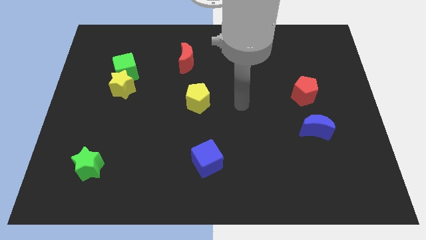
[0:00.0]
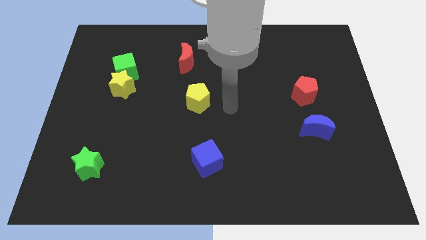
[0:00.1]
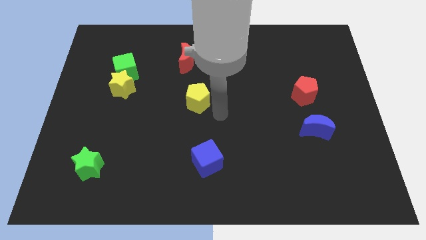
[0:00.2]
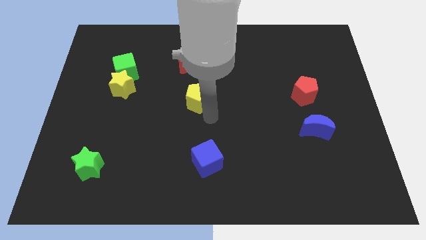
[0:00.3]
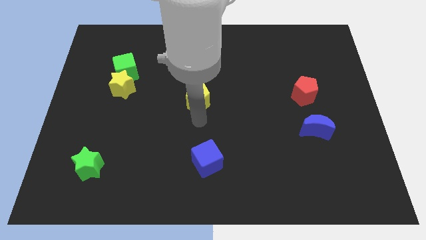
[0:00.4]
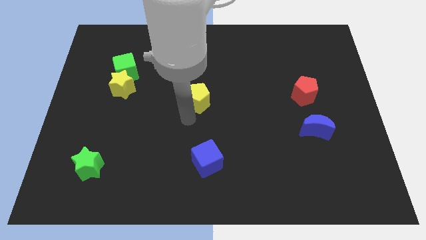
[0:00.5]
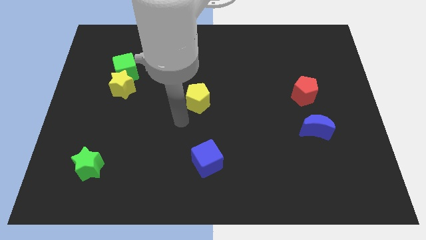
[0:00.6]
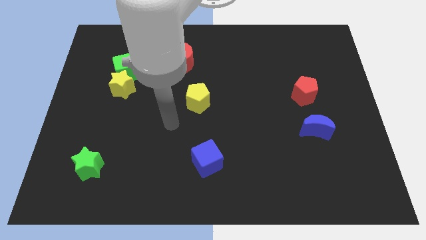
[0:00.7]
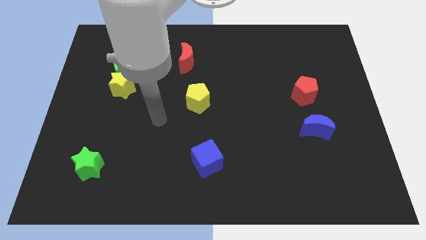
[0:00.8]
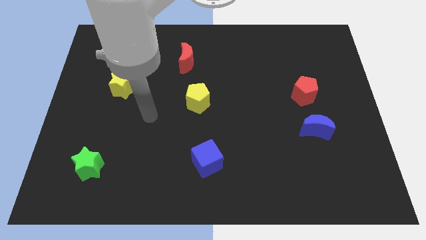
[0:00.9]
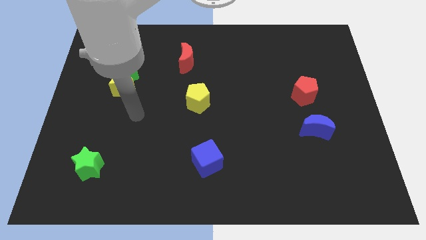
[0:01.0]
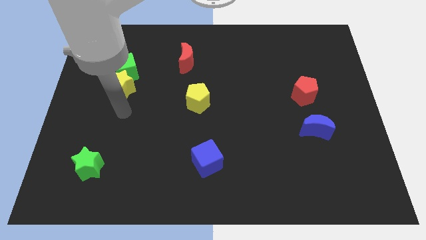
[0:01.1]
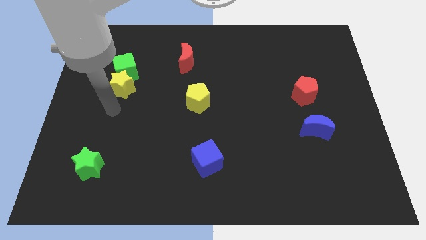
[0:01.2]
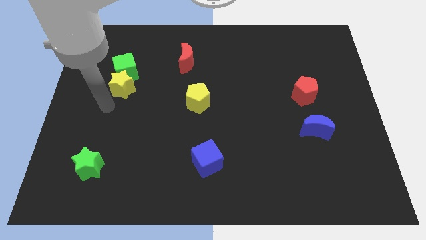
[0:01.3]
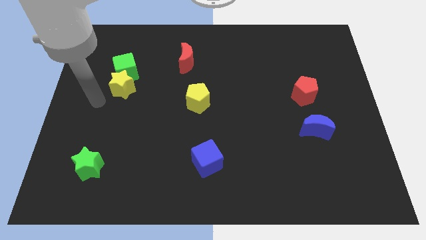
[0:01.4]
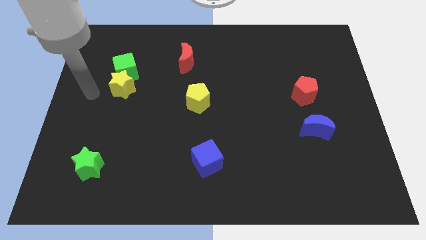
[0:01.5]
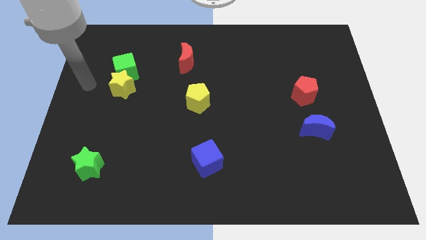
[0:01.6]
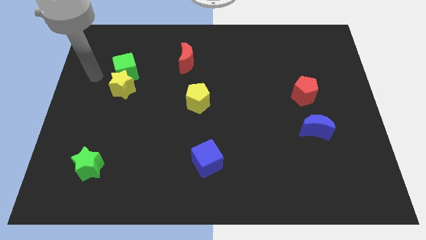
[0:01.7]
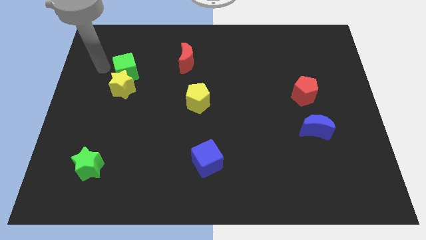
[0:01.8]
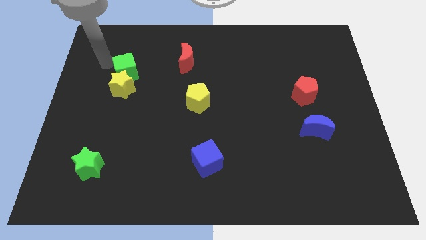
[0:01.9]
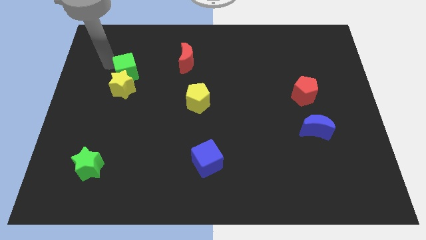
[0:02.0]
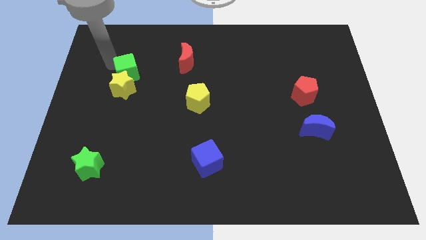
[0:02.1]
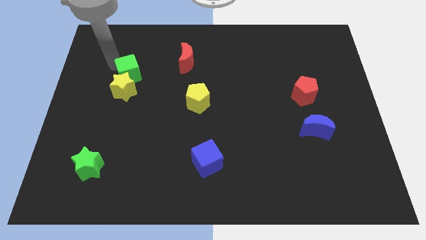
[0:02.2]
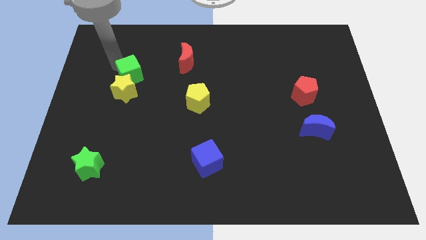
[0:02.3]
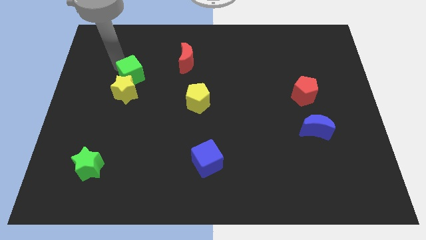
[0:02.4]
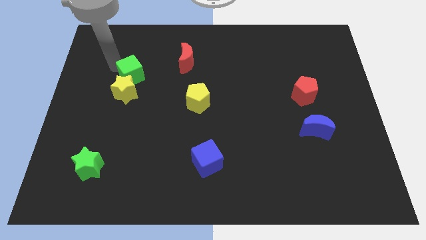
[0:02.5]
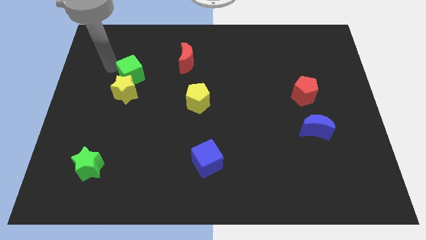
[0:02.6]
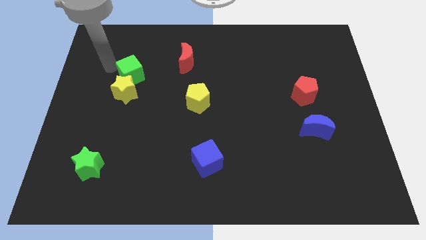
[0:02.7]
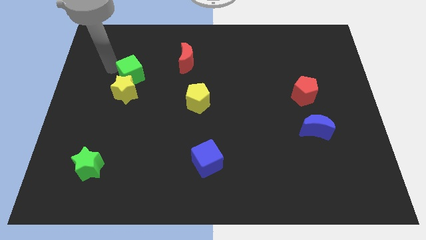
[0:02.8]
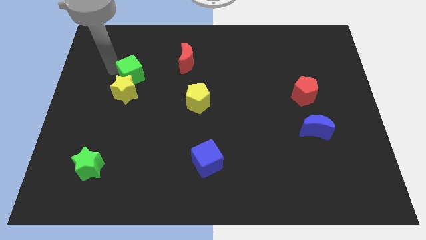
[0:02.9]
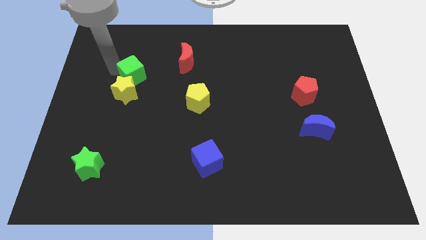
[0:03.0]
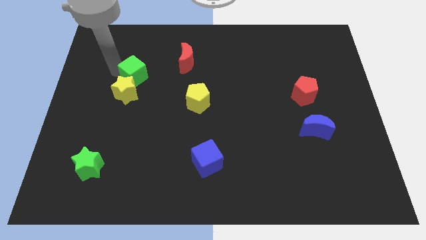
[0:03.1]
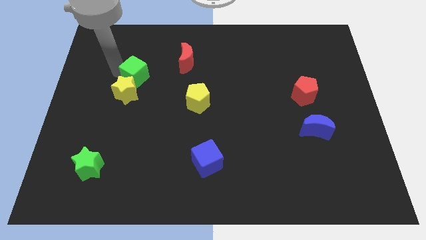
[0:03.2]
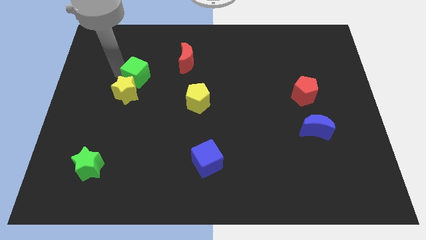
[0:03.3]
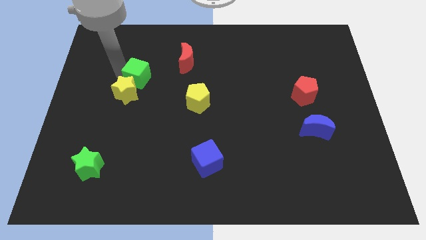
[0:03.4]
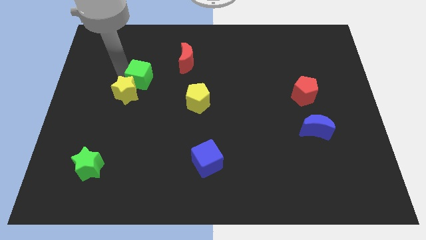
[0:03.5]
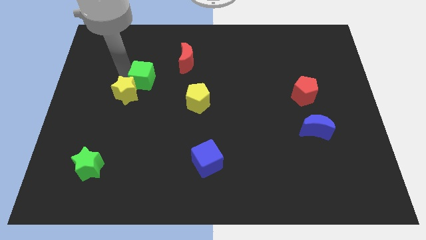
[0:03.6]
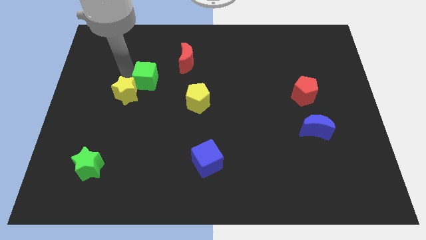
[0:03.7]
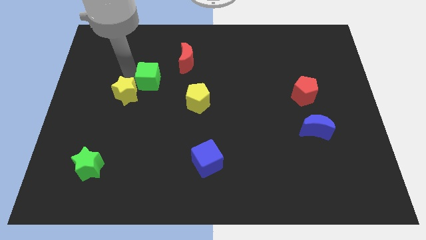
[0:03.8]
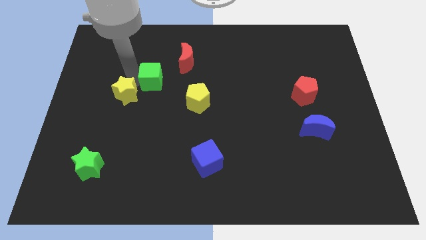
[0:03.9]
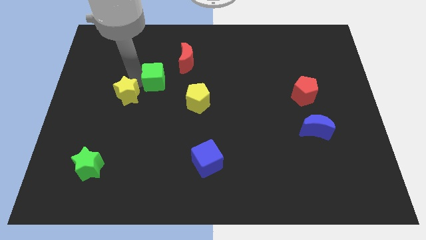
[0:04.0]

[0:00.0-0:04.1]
slide the green cube a bit to the right

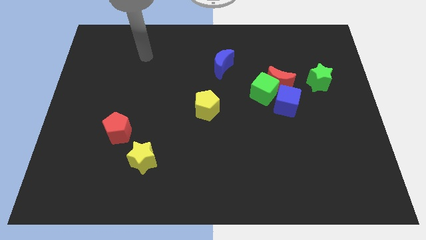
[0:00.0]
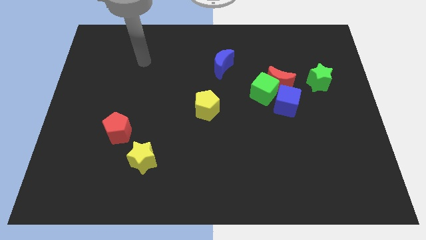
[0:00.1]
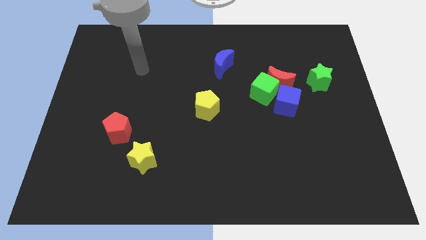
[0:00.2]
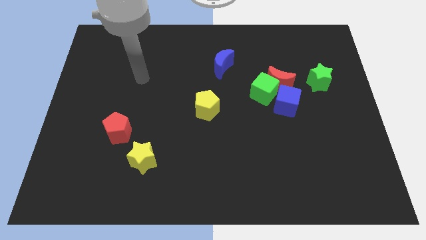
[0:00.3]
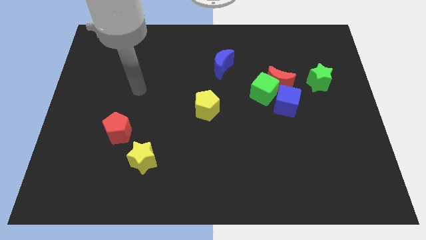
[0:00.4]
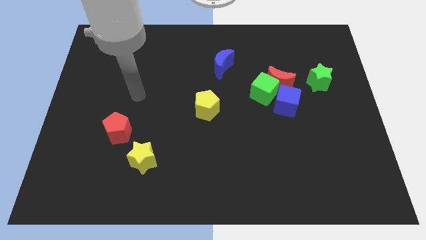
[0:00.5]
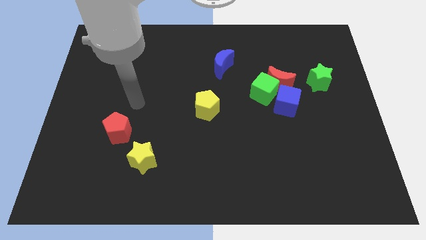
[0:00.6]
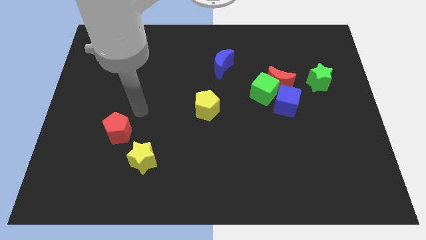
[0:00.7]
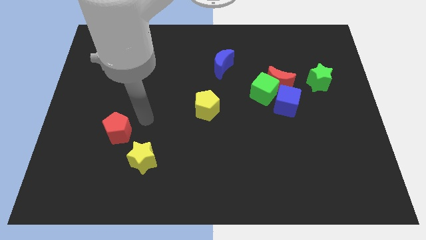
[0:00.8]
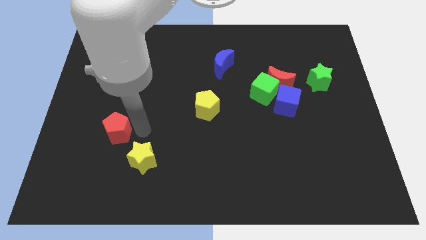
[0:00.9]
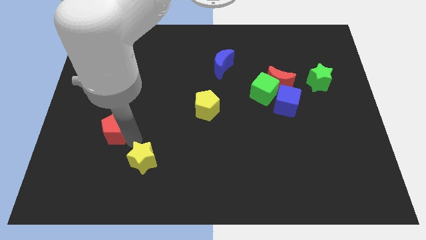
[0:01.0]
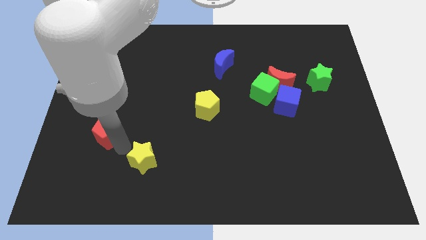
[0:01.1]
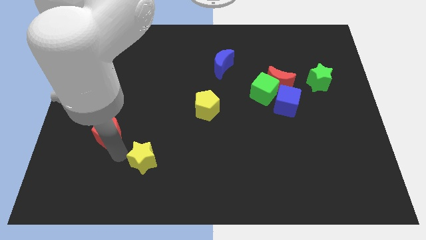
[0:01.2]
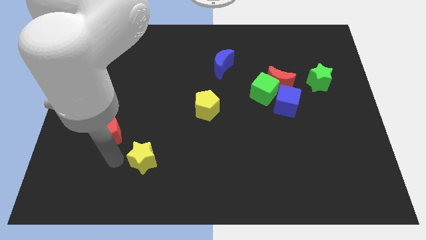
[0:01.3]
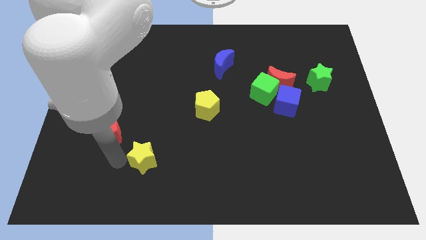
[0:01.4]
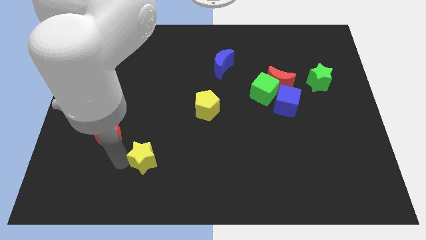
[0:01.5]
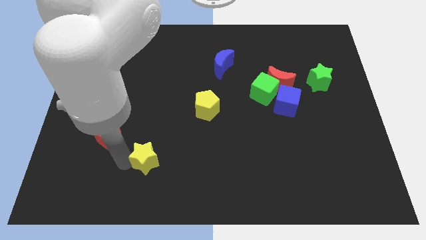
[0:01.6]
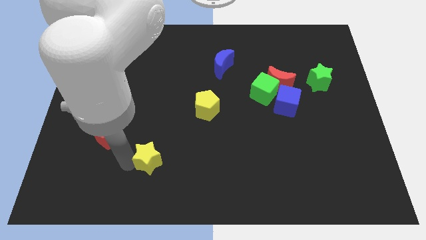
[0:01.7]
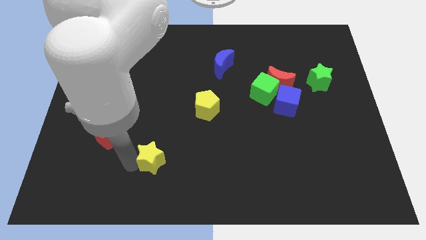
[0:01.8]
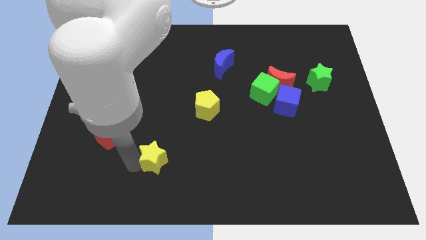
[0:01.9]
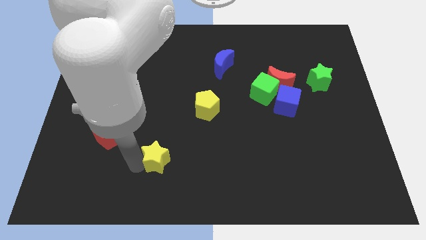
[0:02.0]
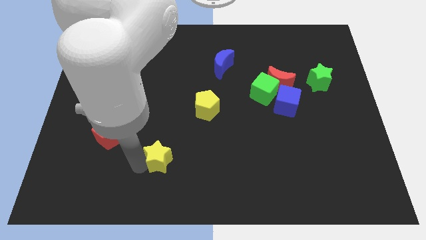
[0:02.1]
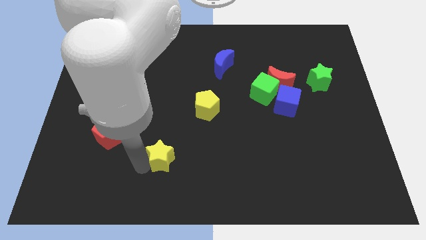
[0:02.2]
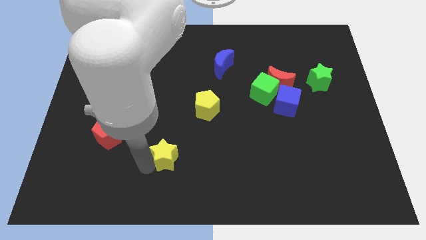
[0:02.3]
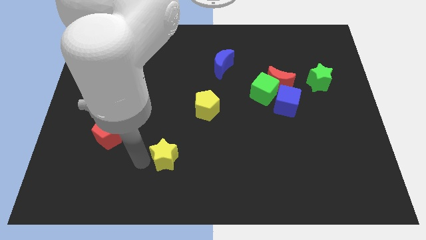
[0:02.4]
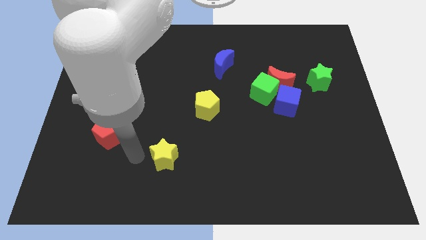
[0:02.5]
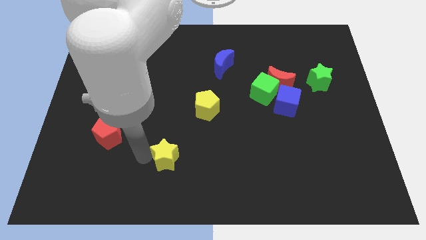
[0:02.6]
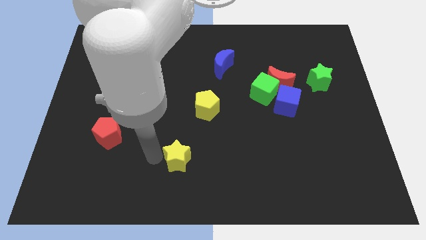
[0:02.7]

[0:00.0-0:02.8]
slide the yellow star to the right a little bit

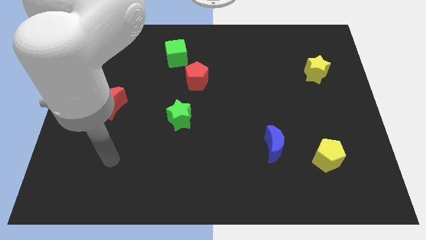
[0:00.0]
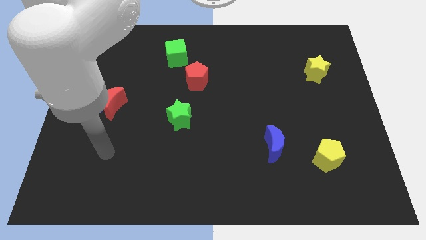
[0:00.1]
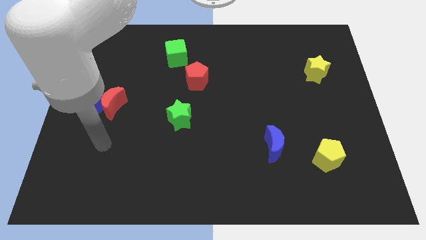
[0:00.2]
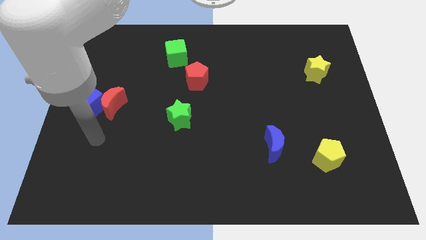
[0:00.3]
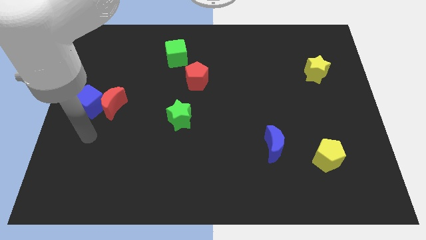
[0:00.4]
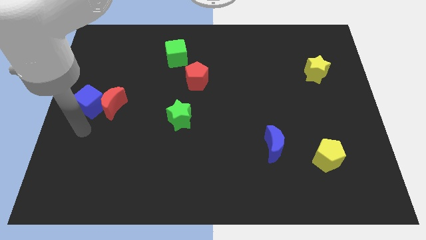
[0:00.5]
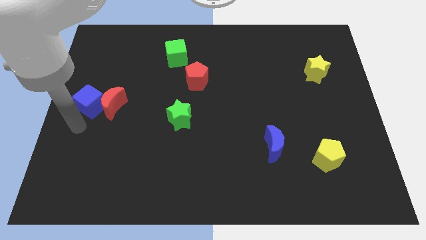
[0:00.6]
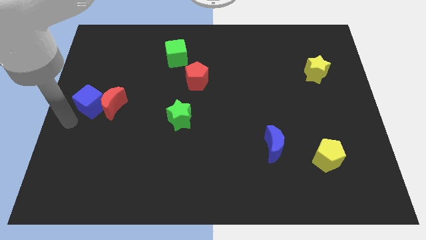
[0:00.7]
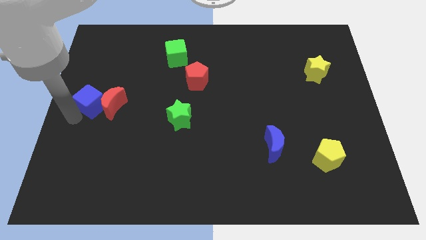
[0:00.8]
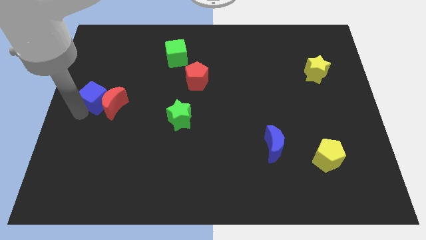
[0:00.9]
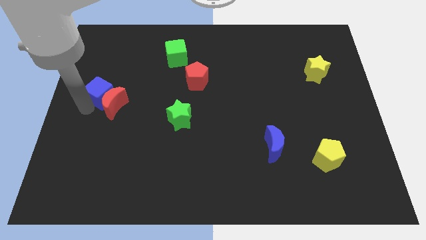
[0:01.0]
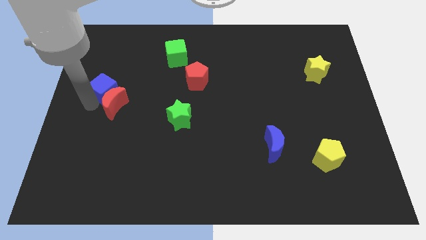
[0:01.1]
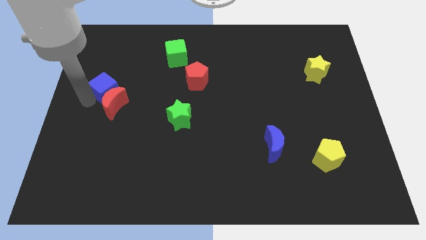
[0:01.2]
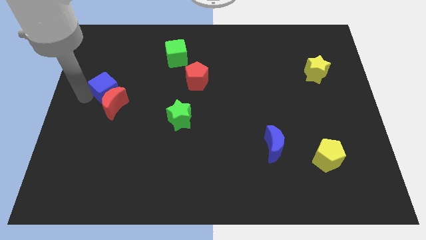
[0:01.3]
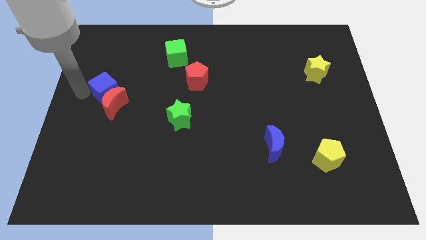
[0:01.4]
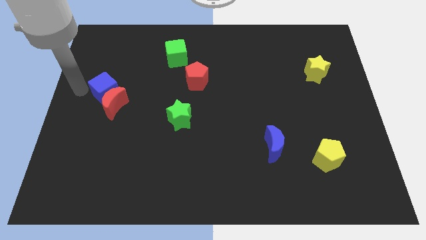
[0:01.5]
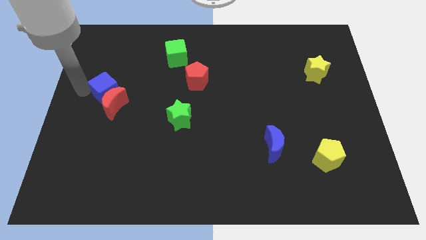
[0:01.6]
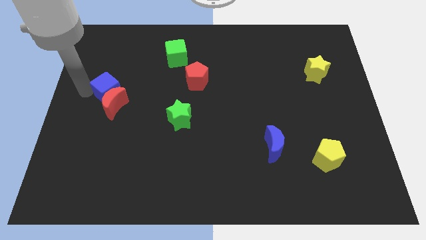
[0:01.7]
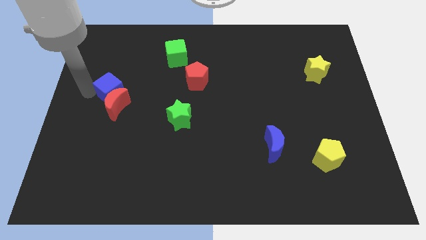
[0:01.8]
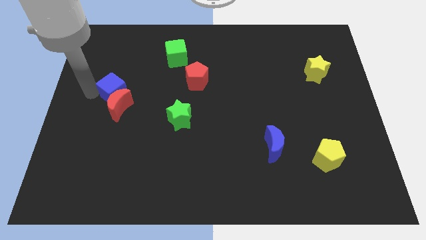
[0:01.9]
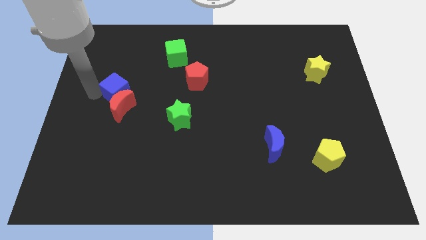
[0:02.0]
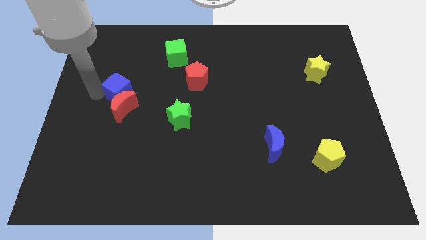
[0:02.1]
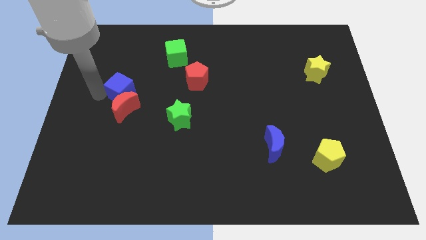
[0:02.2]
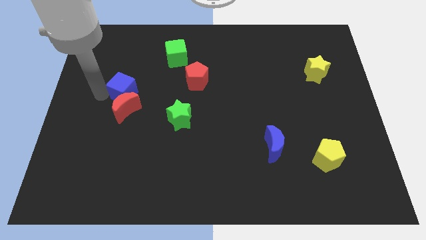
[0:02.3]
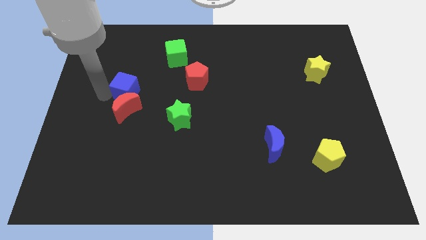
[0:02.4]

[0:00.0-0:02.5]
slightly move the blue cube to the right
